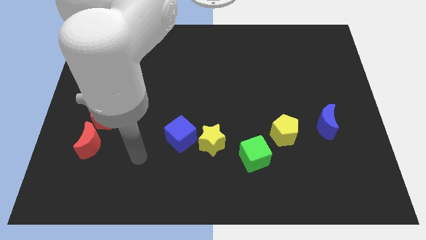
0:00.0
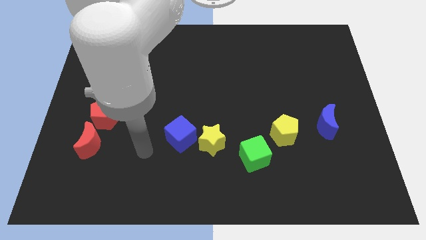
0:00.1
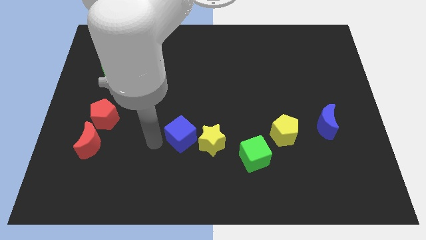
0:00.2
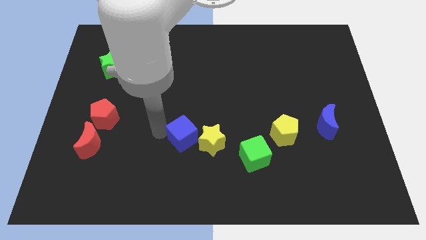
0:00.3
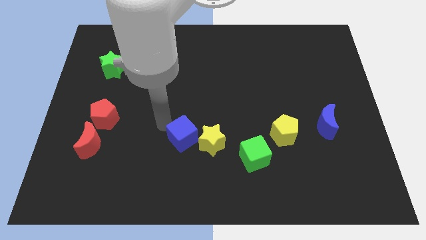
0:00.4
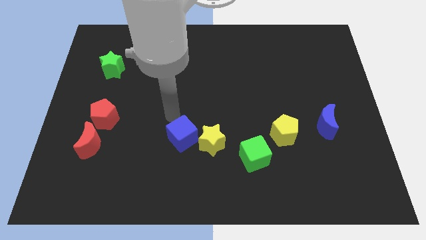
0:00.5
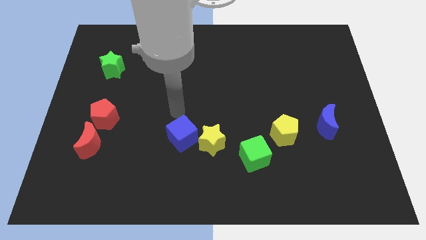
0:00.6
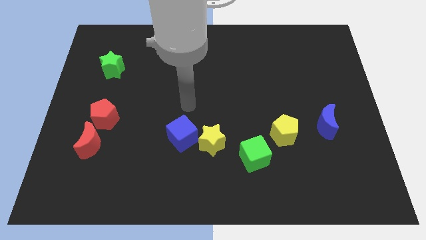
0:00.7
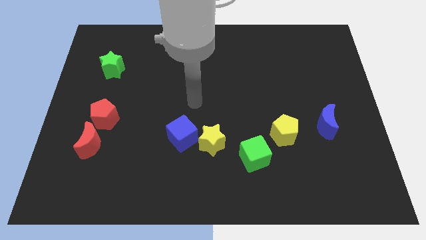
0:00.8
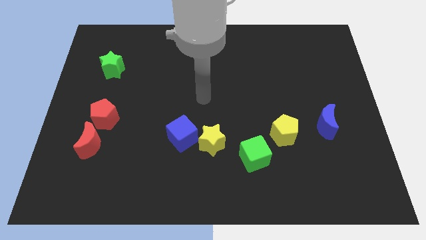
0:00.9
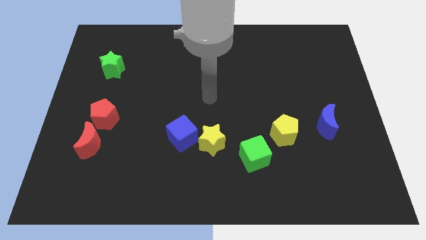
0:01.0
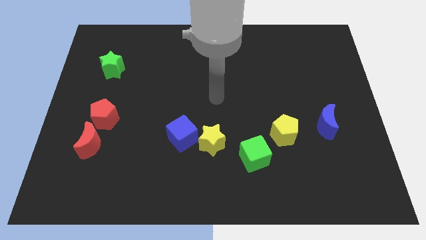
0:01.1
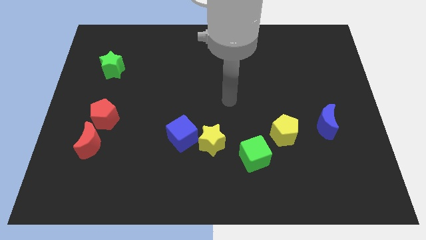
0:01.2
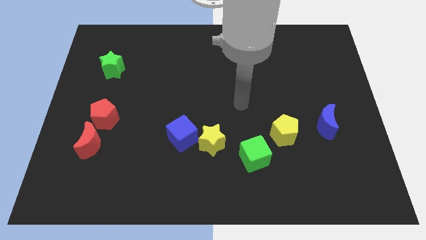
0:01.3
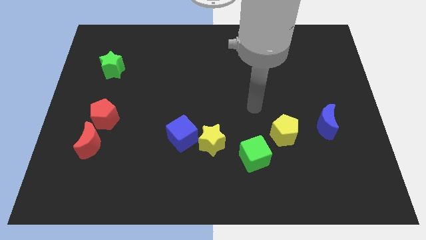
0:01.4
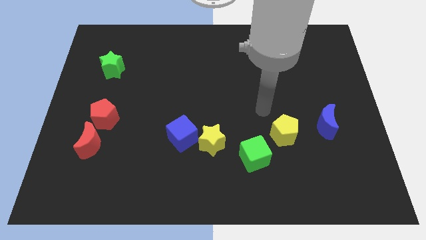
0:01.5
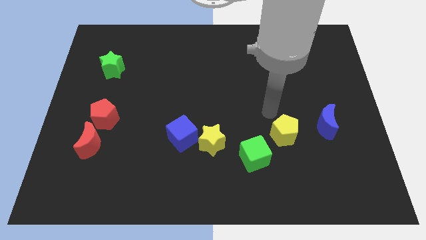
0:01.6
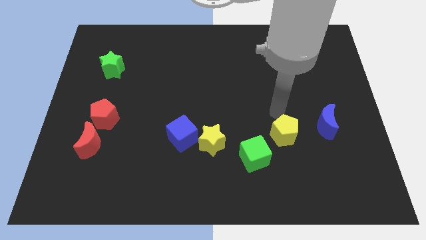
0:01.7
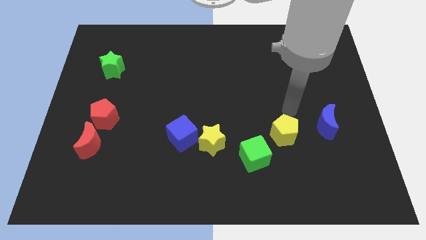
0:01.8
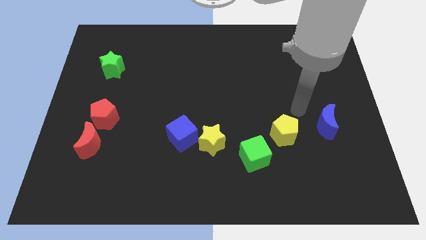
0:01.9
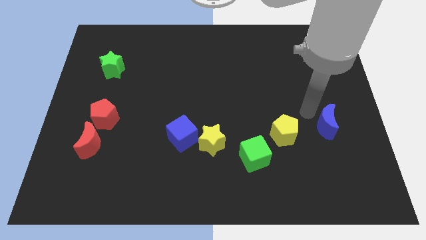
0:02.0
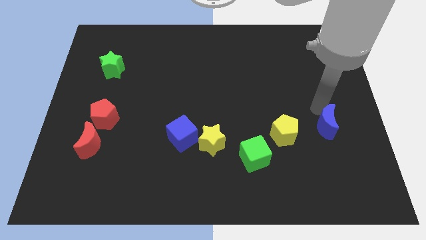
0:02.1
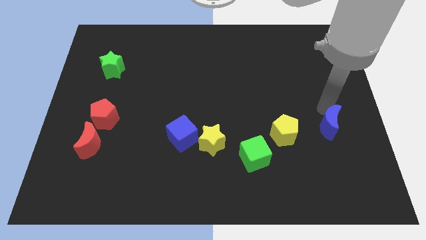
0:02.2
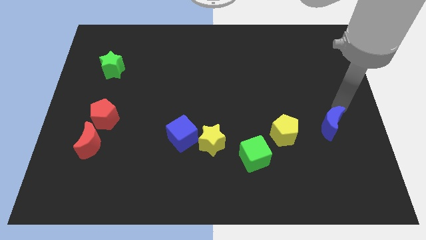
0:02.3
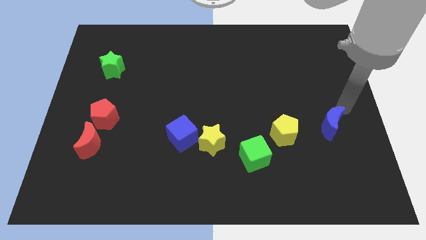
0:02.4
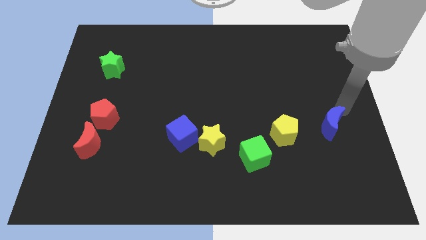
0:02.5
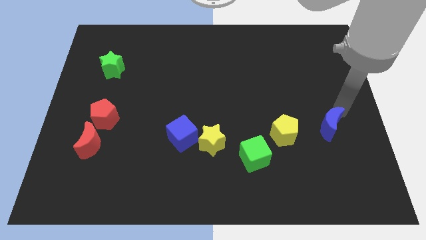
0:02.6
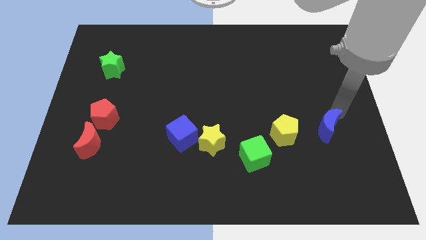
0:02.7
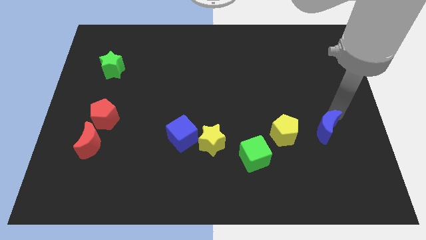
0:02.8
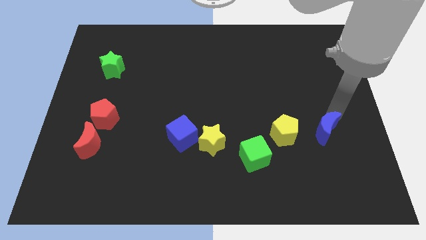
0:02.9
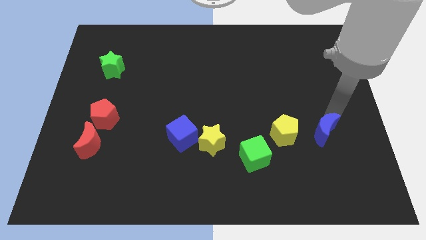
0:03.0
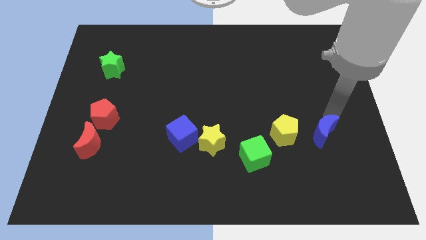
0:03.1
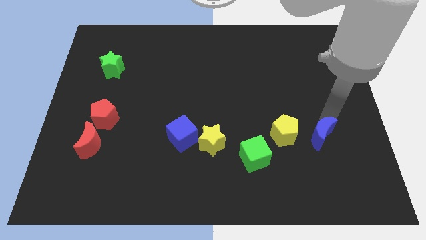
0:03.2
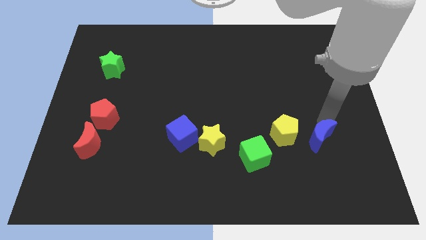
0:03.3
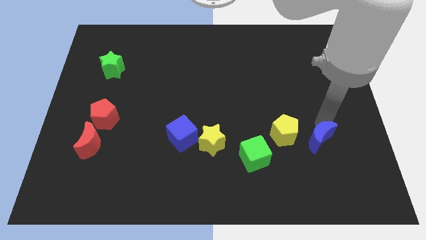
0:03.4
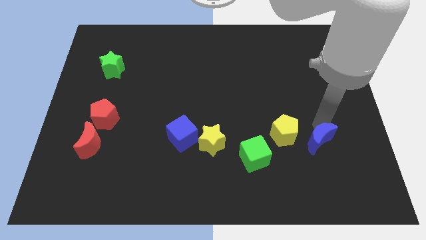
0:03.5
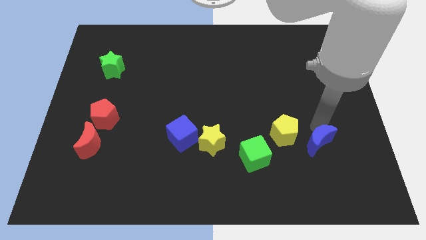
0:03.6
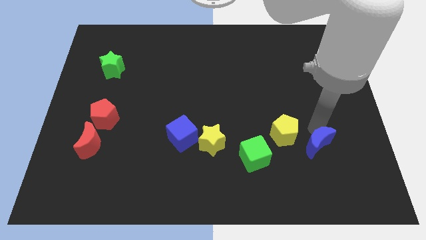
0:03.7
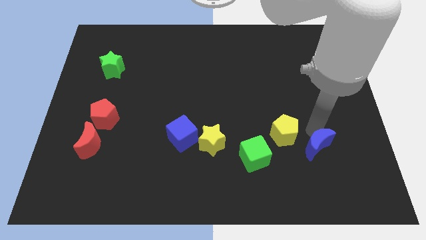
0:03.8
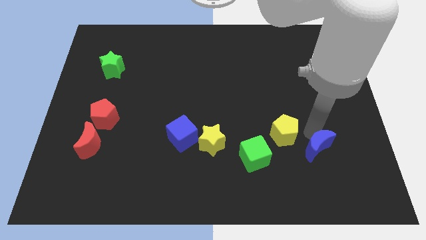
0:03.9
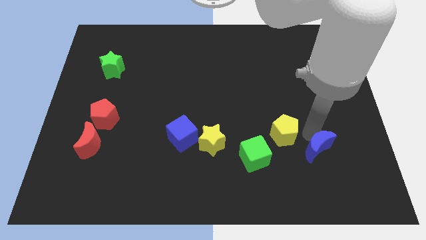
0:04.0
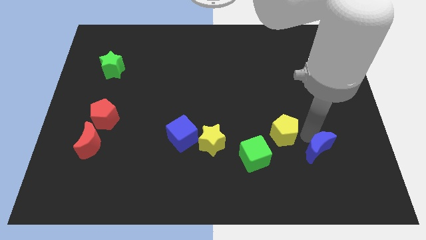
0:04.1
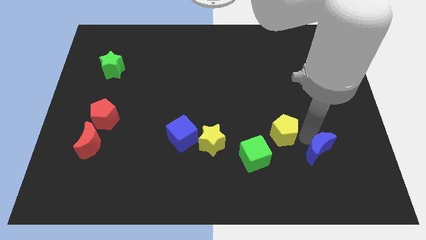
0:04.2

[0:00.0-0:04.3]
push the blue moon a bit down and to the left diagonally

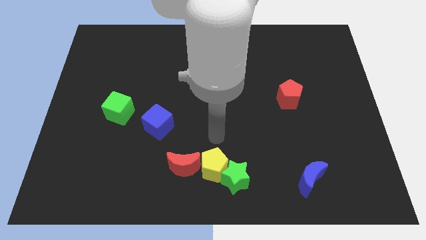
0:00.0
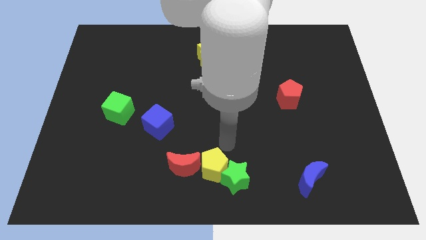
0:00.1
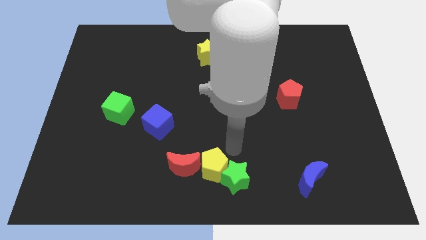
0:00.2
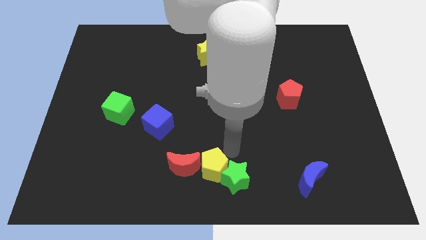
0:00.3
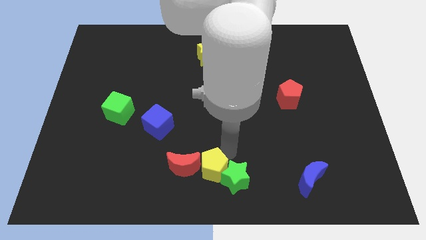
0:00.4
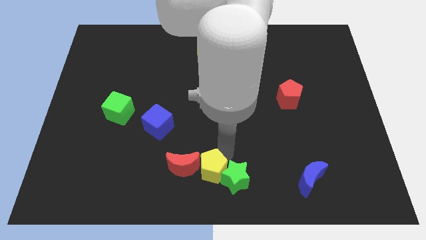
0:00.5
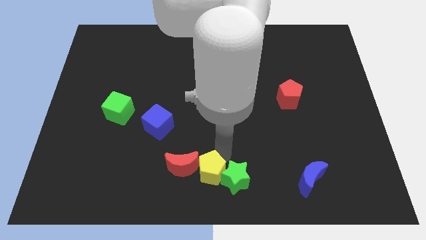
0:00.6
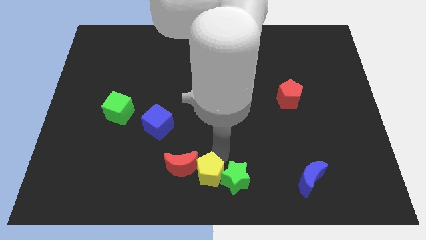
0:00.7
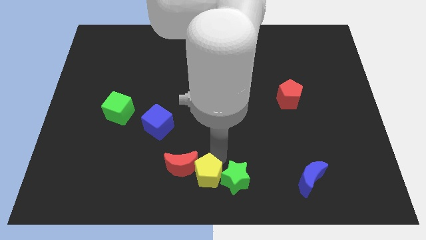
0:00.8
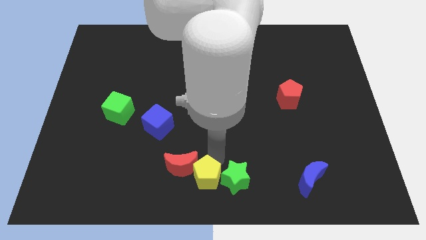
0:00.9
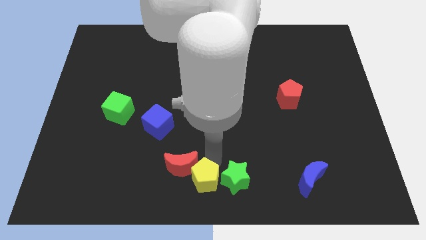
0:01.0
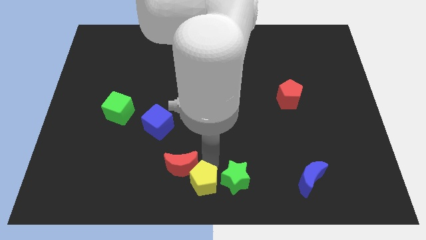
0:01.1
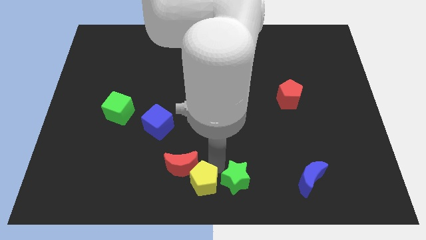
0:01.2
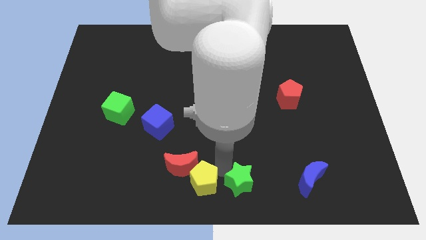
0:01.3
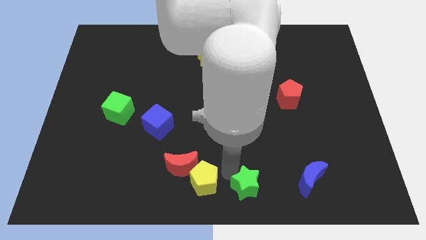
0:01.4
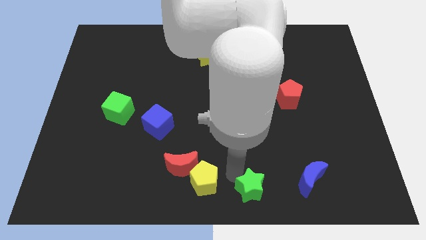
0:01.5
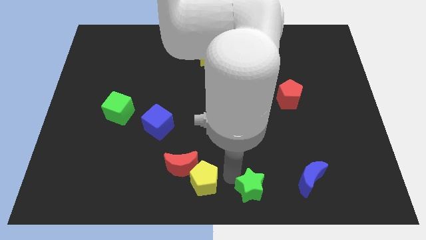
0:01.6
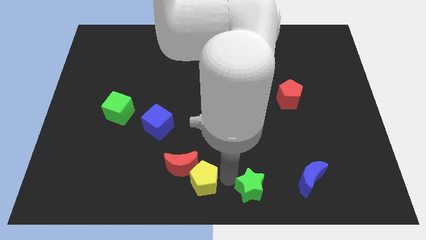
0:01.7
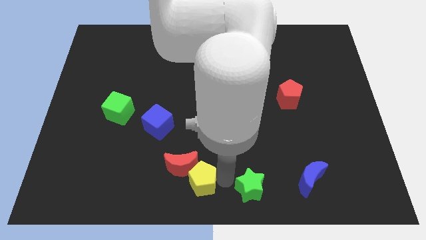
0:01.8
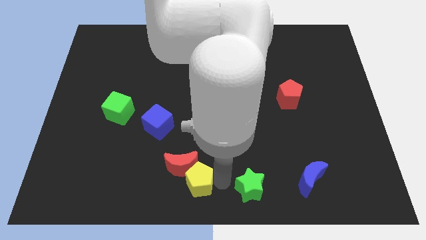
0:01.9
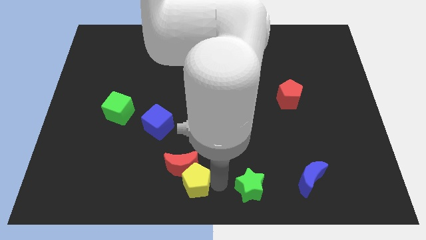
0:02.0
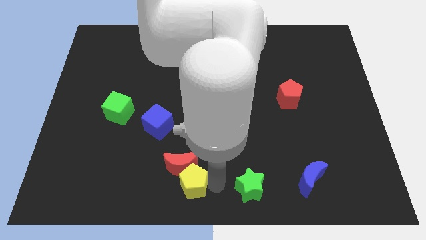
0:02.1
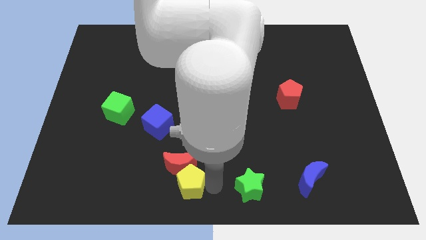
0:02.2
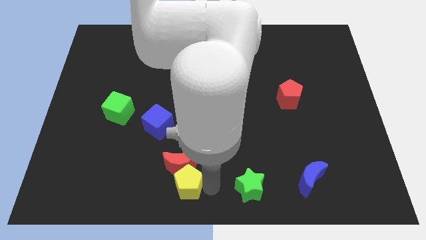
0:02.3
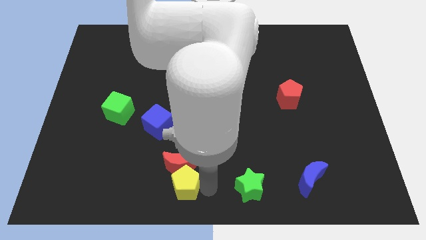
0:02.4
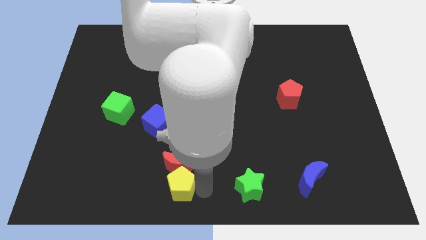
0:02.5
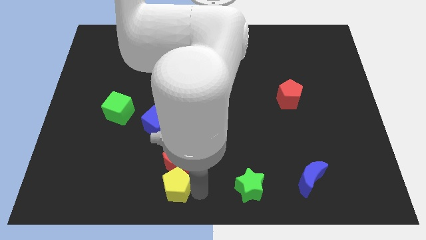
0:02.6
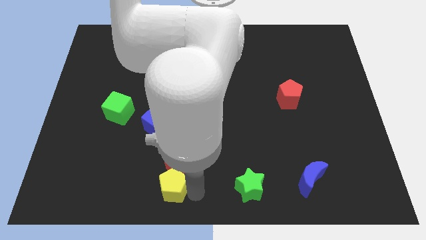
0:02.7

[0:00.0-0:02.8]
move the yellow pentagon left a little bit

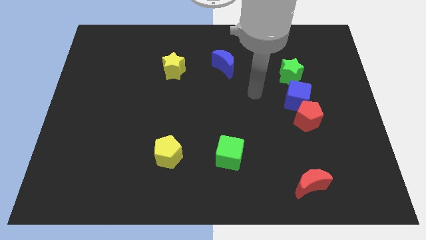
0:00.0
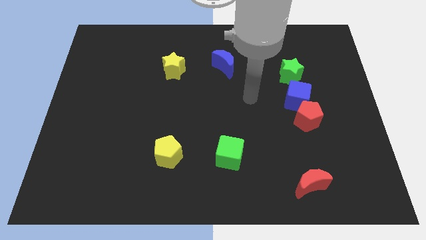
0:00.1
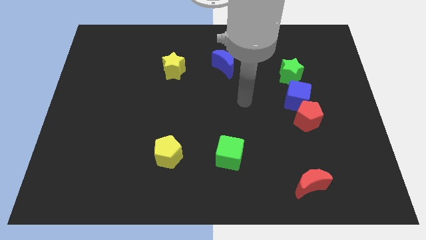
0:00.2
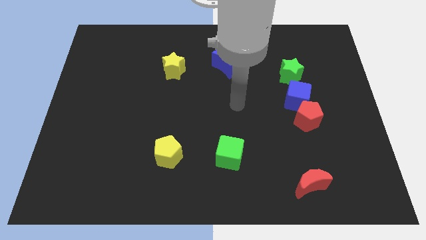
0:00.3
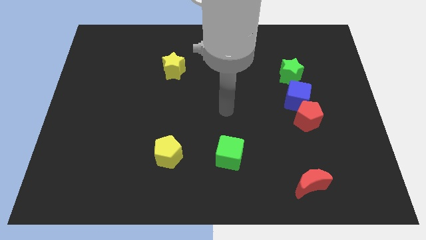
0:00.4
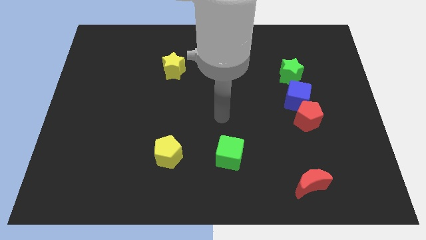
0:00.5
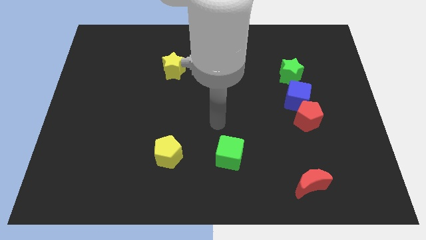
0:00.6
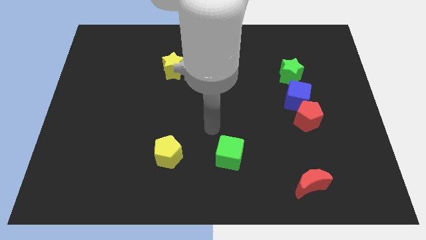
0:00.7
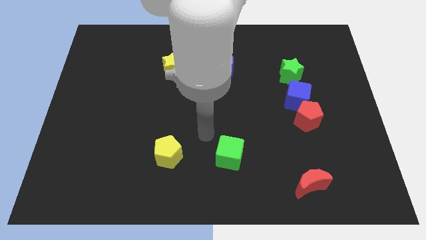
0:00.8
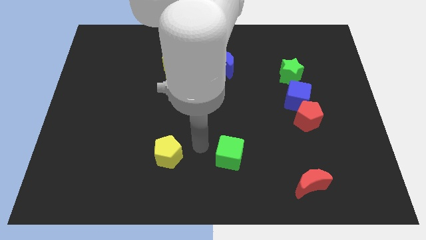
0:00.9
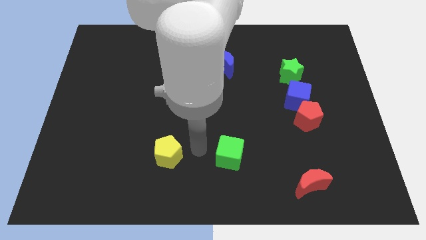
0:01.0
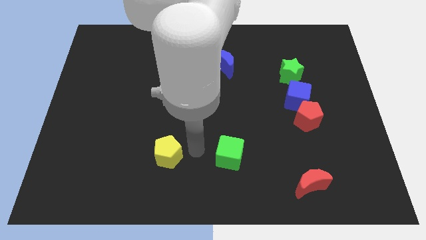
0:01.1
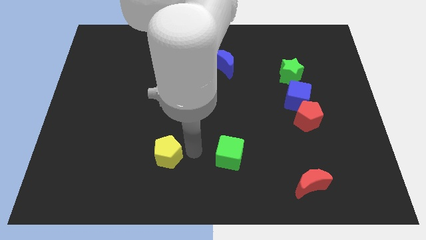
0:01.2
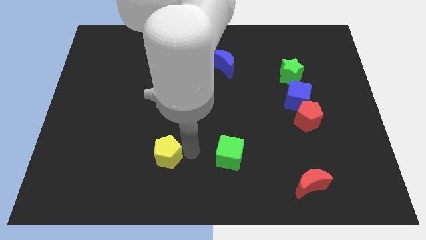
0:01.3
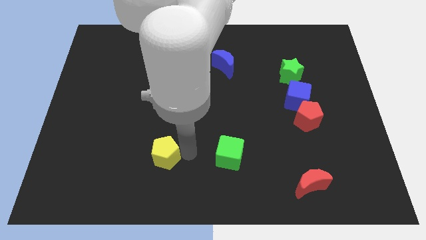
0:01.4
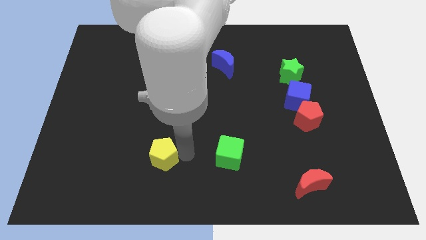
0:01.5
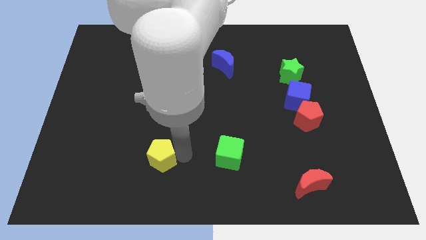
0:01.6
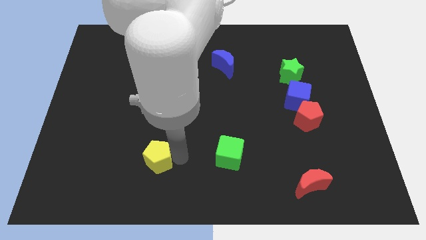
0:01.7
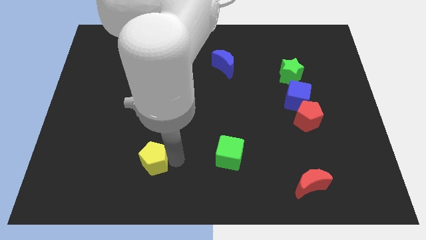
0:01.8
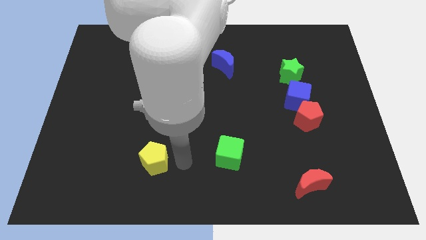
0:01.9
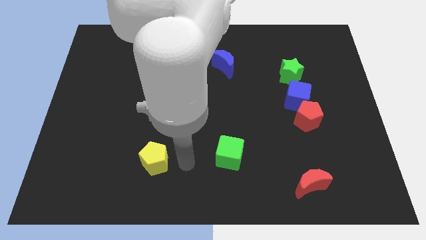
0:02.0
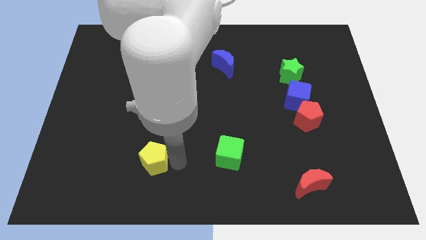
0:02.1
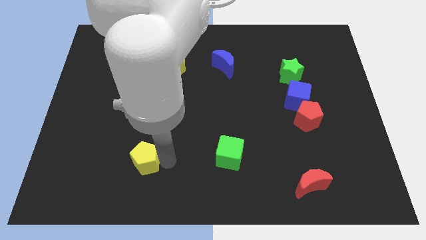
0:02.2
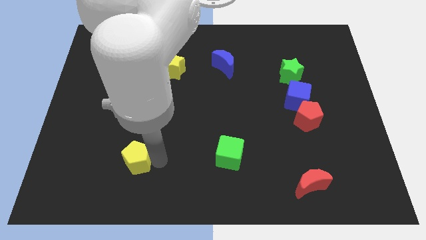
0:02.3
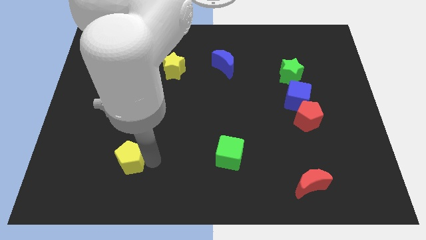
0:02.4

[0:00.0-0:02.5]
slightly push the yellow pentagon to the left
